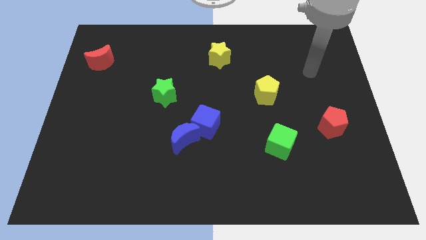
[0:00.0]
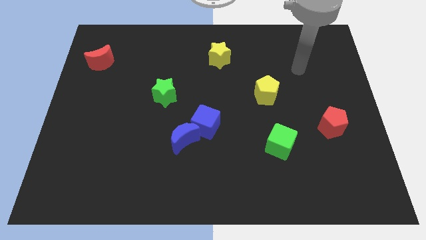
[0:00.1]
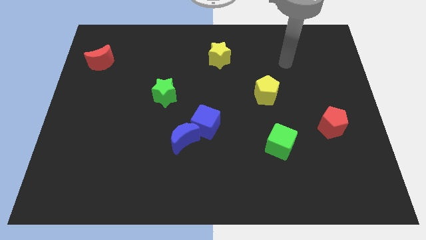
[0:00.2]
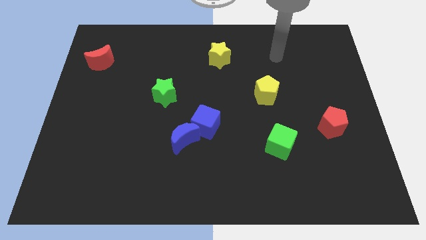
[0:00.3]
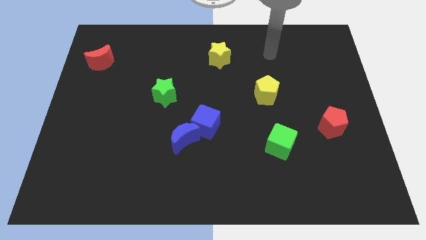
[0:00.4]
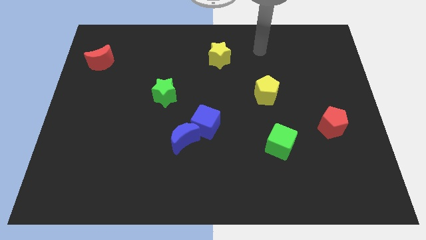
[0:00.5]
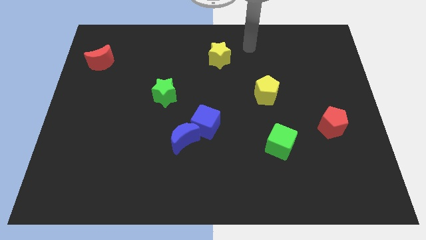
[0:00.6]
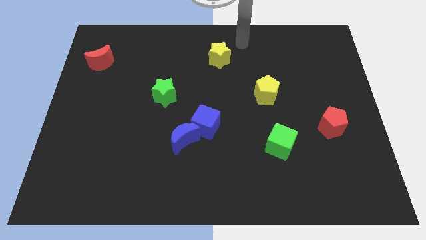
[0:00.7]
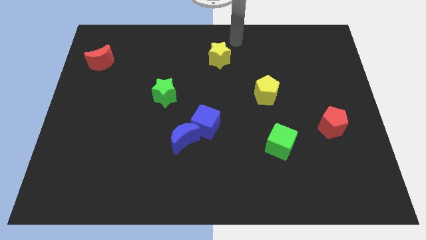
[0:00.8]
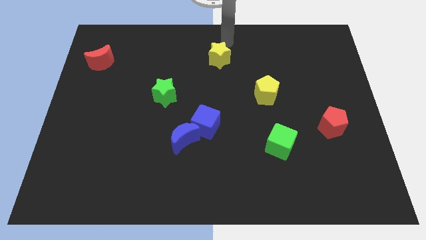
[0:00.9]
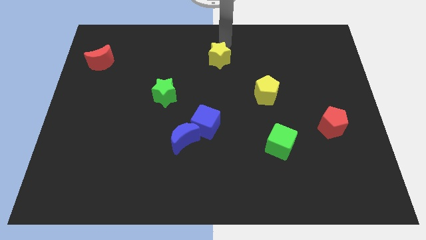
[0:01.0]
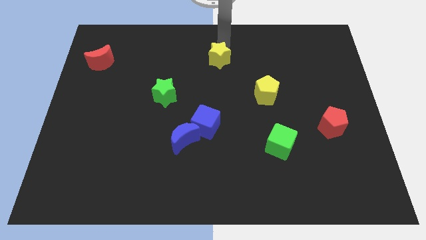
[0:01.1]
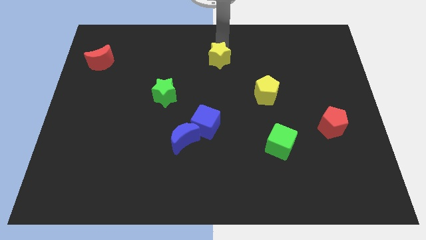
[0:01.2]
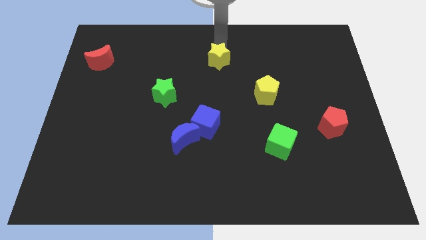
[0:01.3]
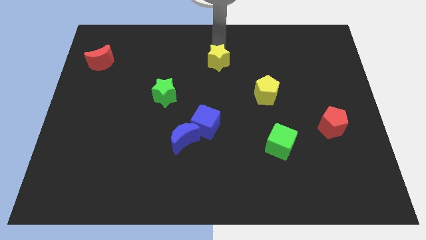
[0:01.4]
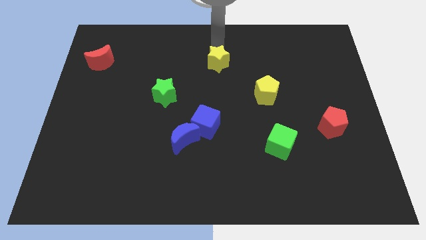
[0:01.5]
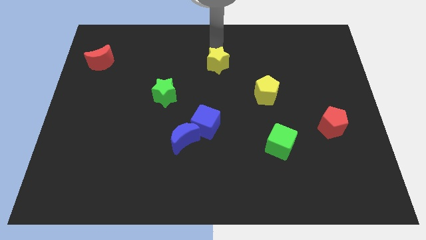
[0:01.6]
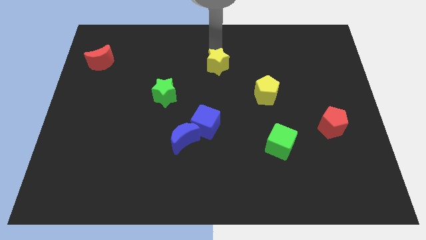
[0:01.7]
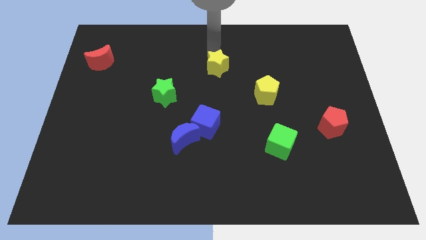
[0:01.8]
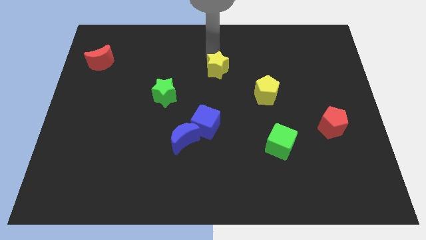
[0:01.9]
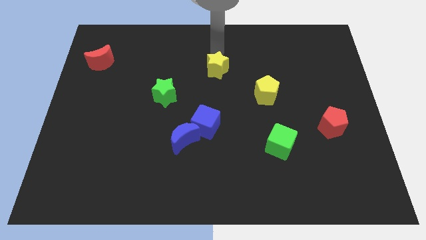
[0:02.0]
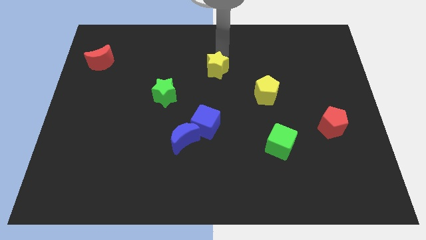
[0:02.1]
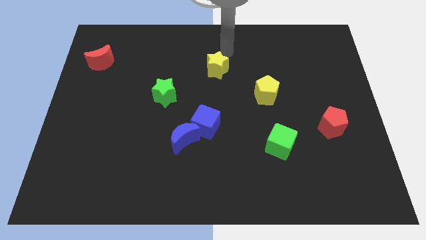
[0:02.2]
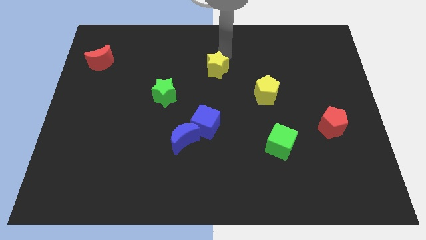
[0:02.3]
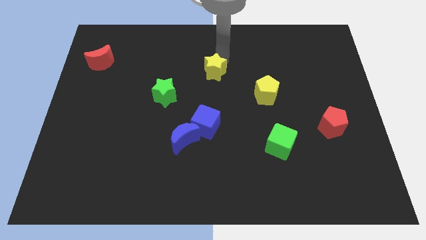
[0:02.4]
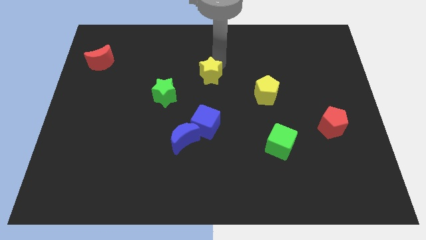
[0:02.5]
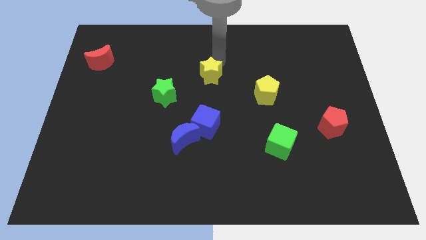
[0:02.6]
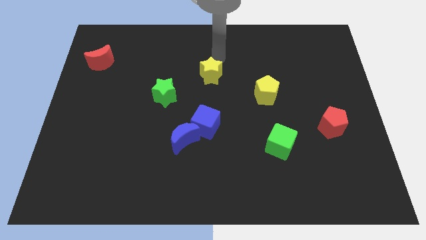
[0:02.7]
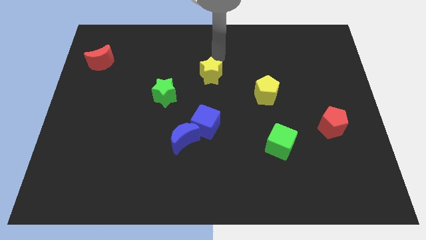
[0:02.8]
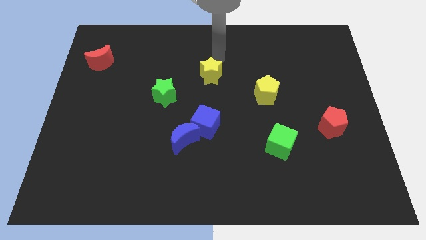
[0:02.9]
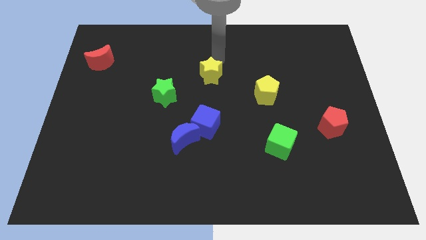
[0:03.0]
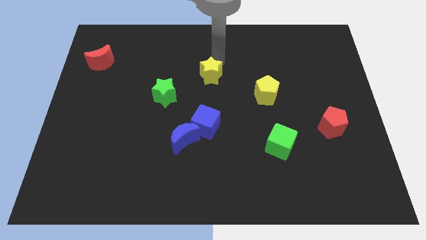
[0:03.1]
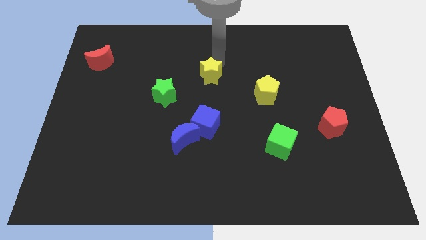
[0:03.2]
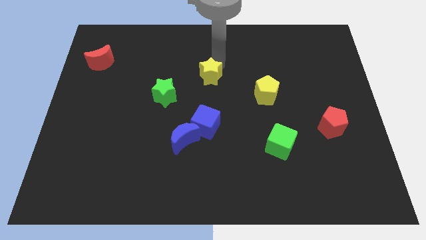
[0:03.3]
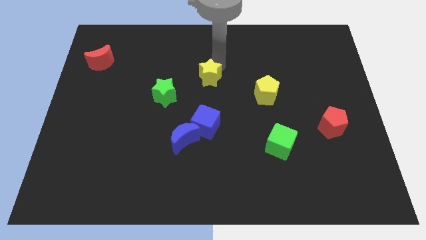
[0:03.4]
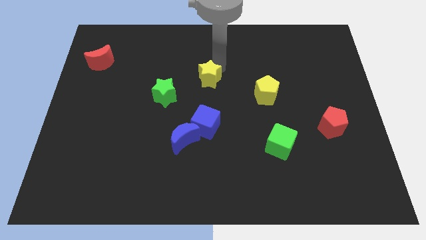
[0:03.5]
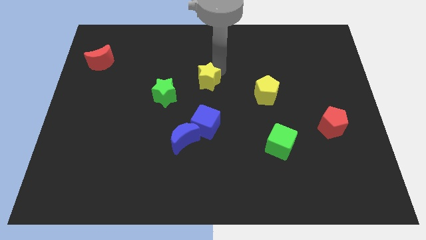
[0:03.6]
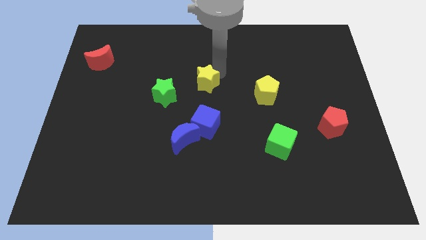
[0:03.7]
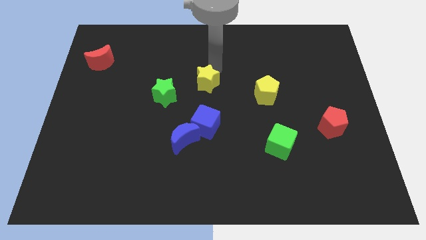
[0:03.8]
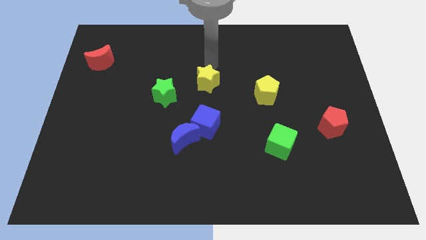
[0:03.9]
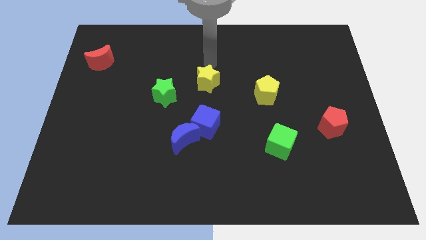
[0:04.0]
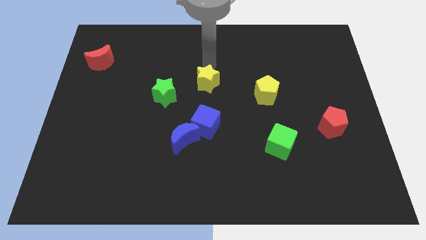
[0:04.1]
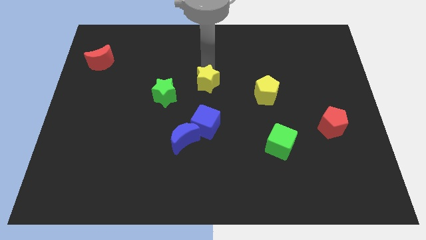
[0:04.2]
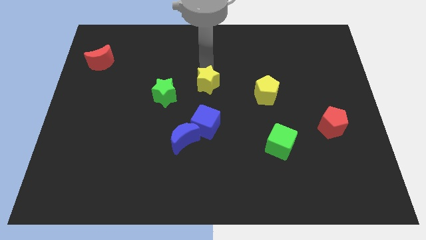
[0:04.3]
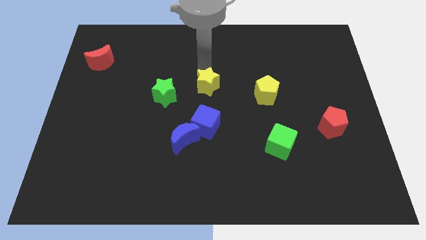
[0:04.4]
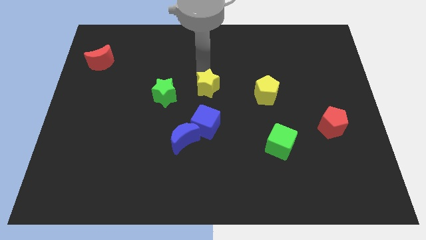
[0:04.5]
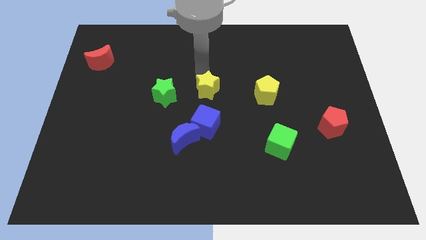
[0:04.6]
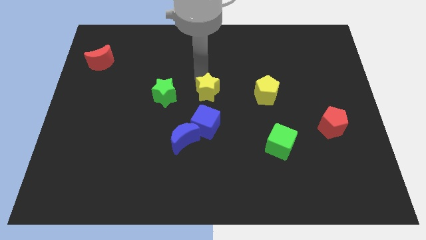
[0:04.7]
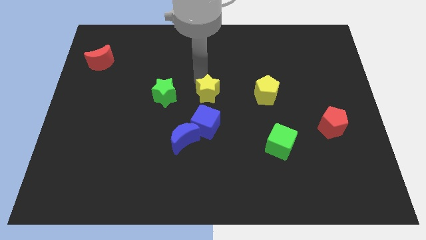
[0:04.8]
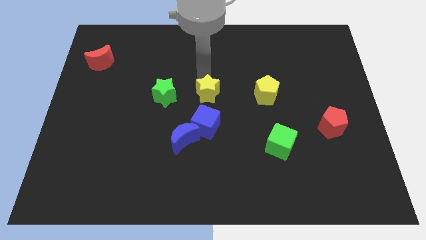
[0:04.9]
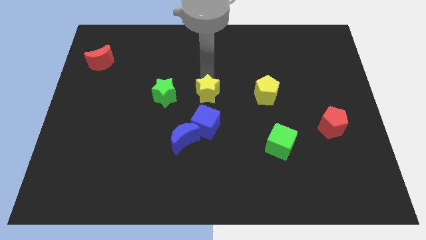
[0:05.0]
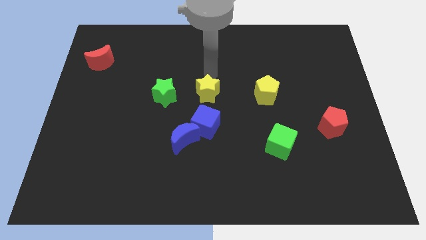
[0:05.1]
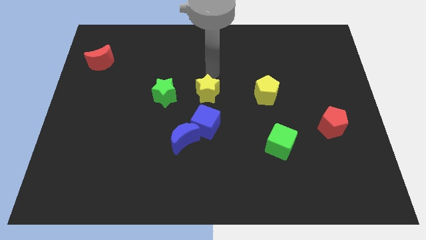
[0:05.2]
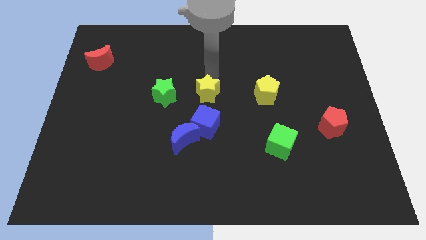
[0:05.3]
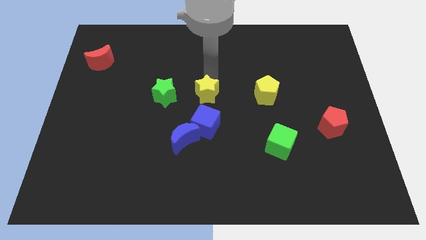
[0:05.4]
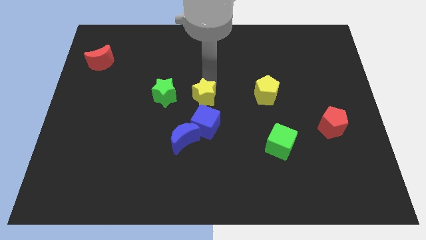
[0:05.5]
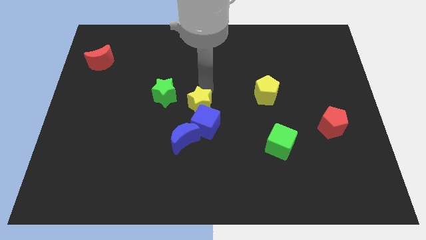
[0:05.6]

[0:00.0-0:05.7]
move the yellow star towards the blue cube

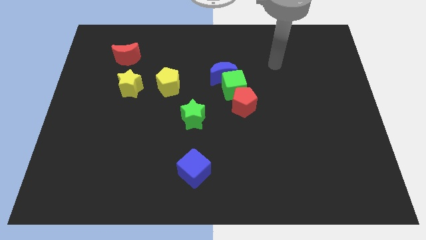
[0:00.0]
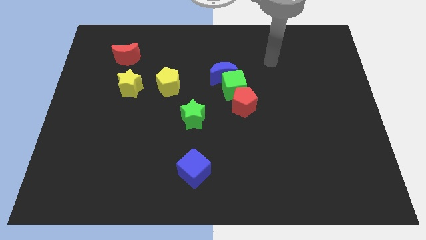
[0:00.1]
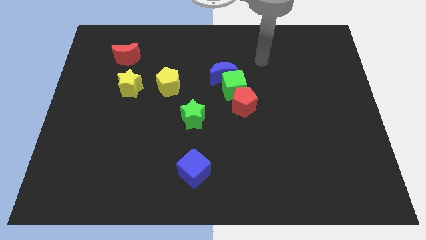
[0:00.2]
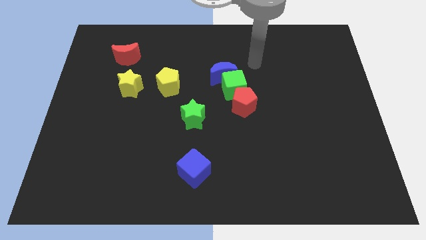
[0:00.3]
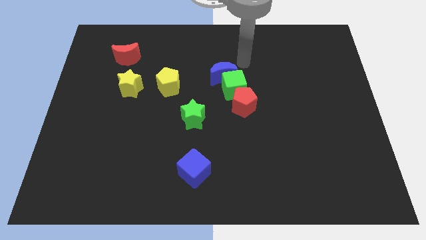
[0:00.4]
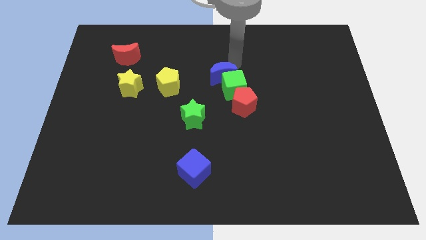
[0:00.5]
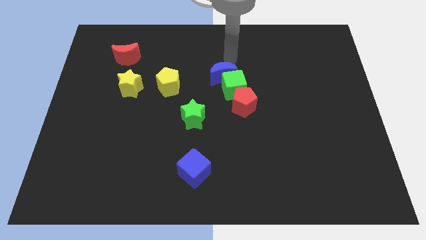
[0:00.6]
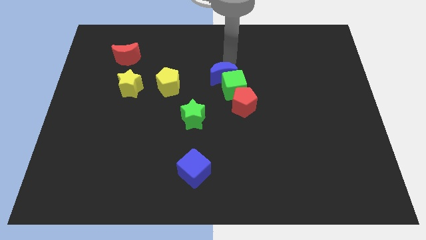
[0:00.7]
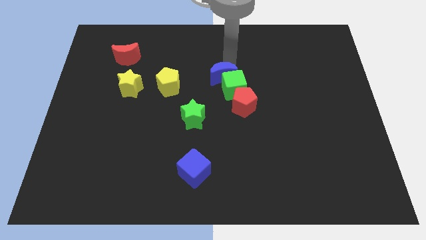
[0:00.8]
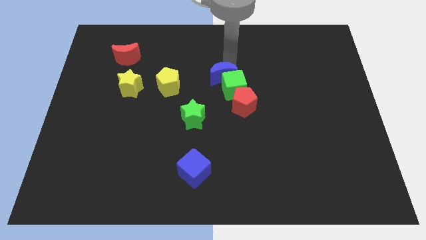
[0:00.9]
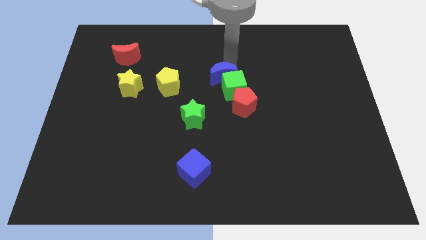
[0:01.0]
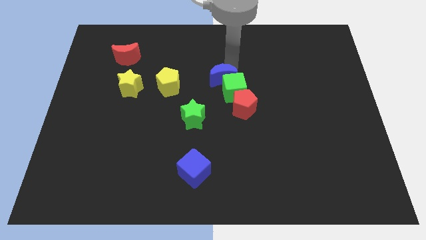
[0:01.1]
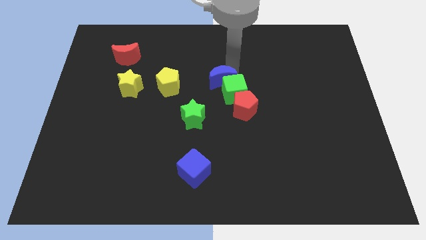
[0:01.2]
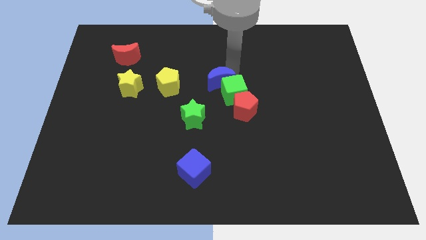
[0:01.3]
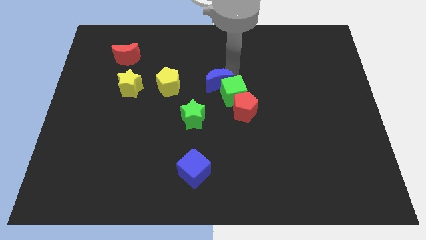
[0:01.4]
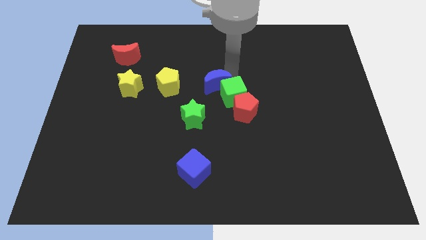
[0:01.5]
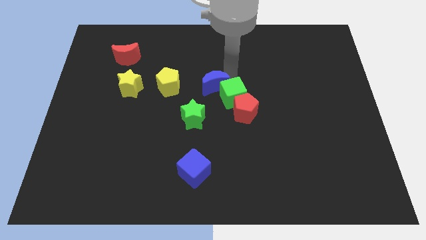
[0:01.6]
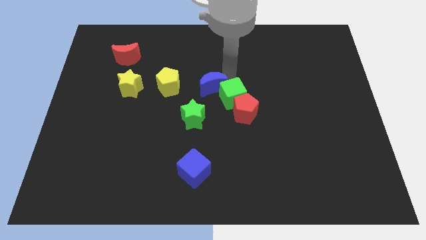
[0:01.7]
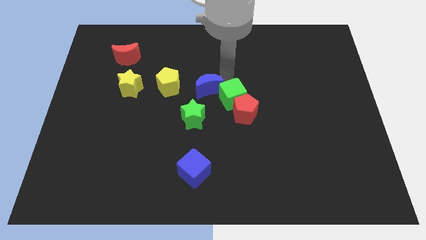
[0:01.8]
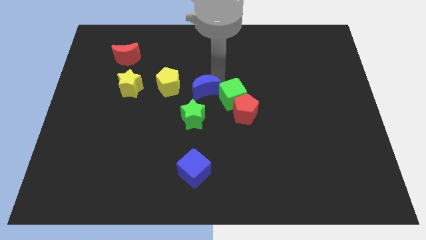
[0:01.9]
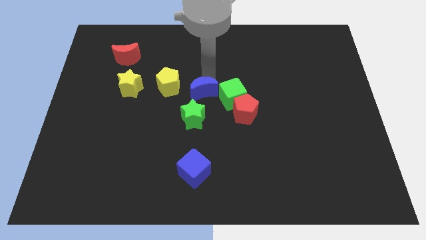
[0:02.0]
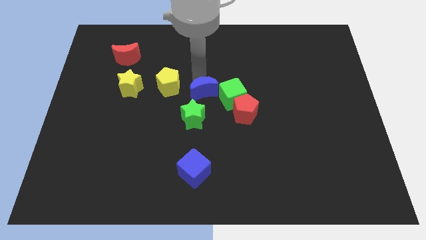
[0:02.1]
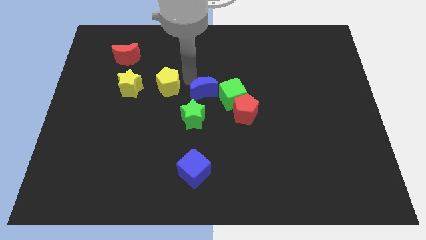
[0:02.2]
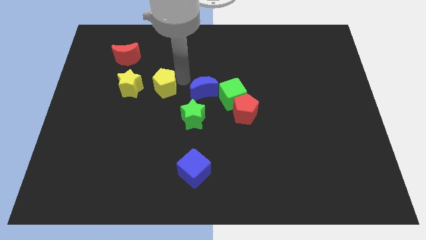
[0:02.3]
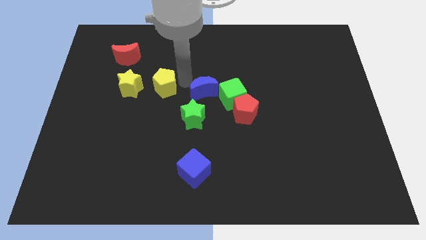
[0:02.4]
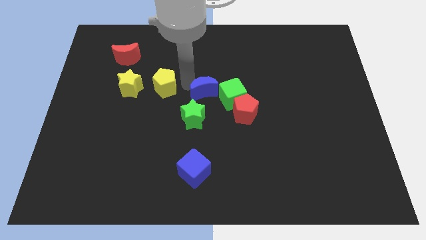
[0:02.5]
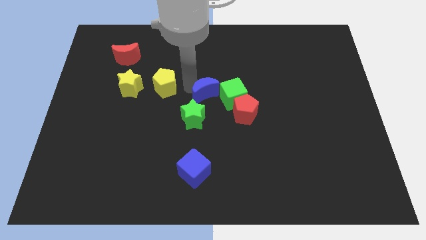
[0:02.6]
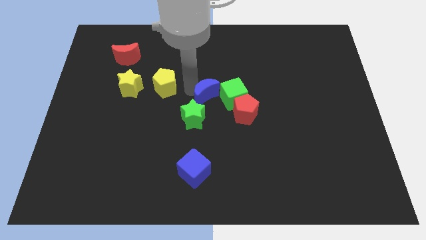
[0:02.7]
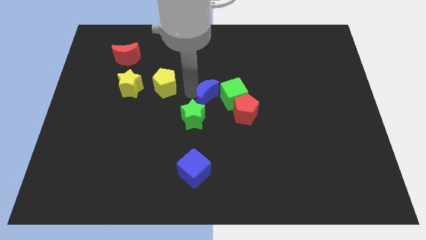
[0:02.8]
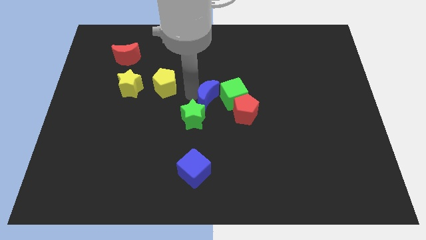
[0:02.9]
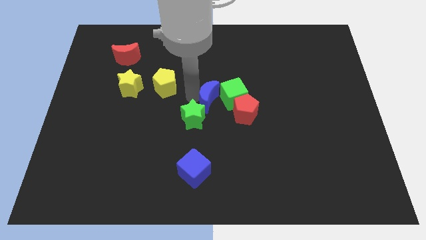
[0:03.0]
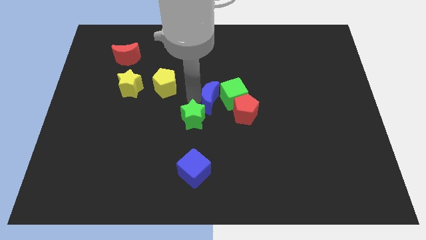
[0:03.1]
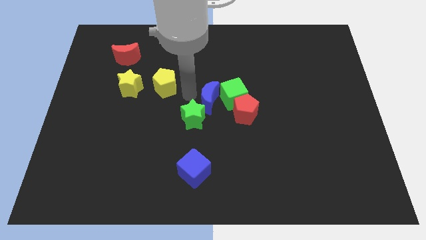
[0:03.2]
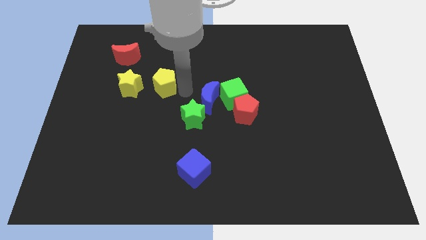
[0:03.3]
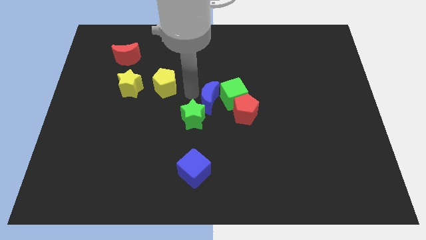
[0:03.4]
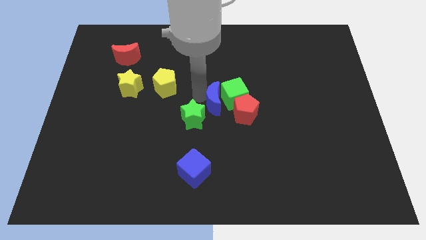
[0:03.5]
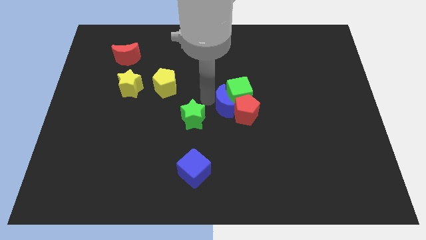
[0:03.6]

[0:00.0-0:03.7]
put the blue moon to the red pentagon
